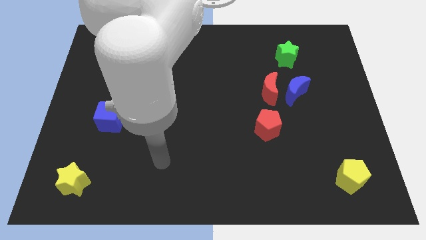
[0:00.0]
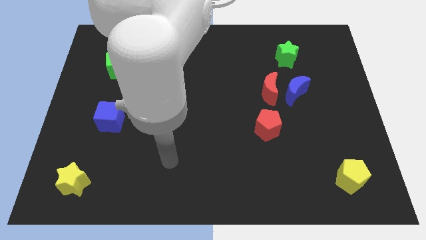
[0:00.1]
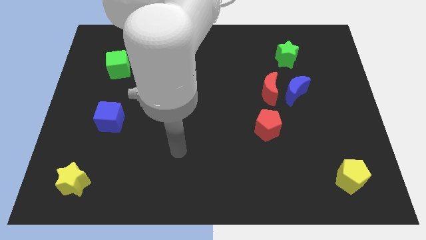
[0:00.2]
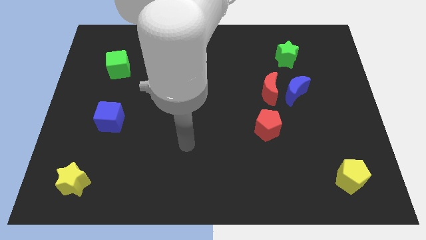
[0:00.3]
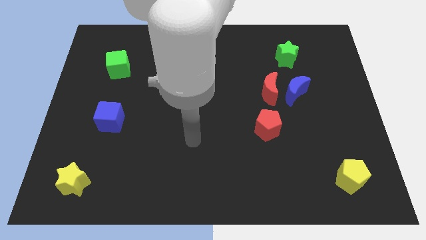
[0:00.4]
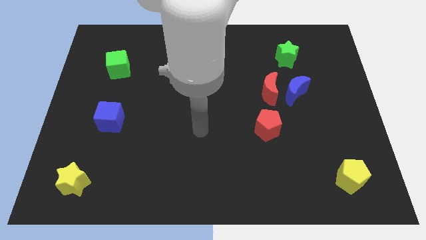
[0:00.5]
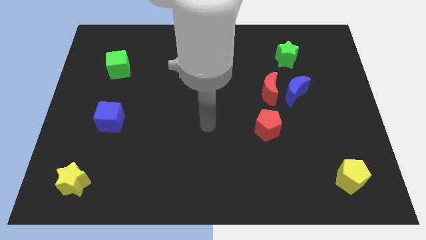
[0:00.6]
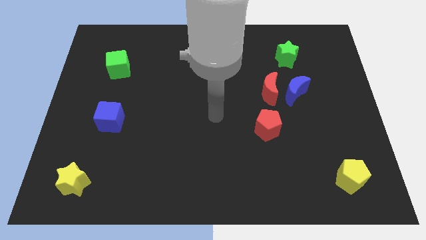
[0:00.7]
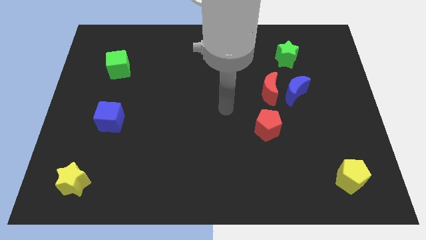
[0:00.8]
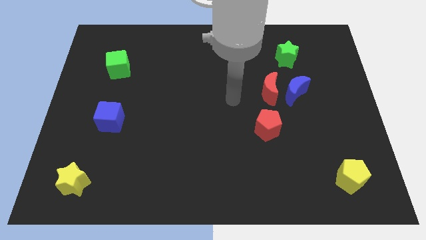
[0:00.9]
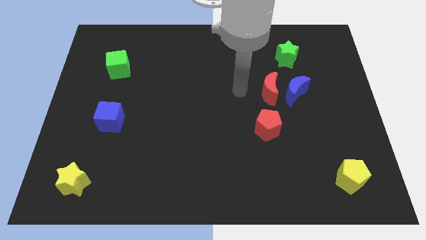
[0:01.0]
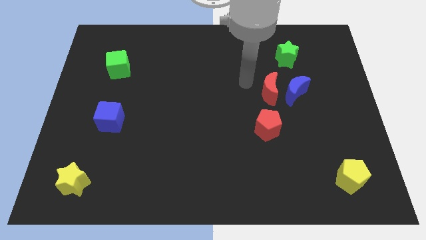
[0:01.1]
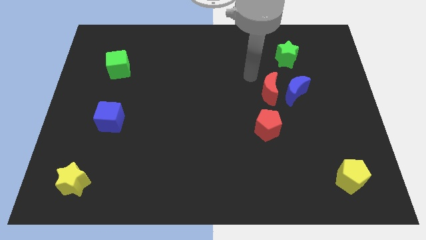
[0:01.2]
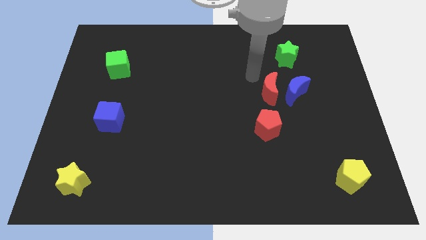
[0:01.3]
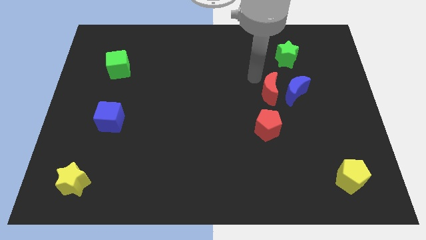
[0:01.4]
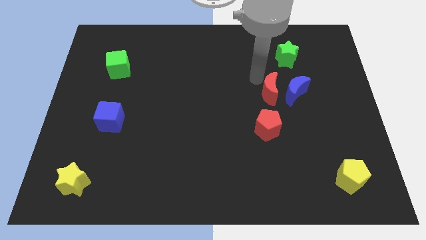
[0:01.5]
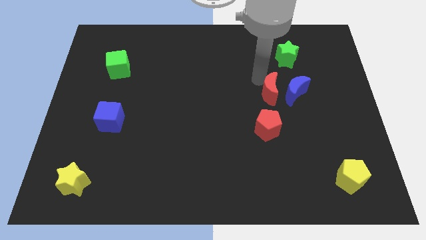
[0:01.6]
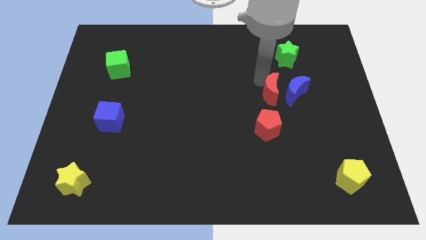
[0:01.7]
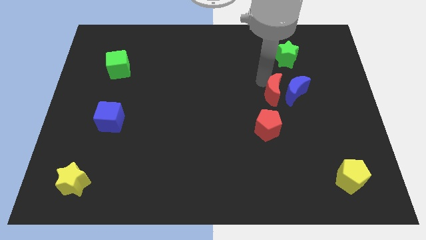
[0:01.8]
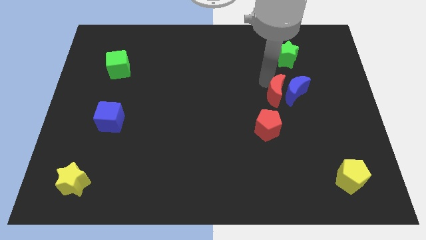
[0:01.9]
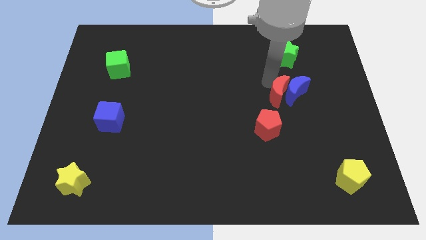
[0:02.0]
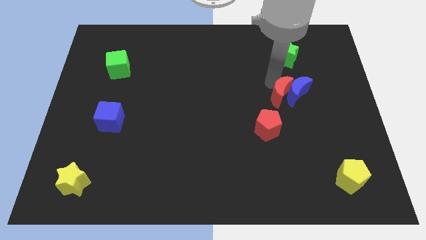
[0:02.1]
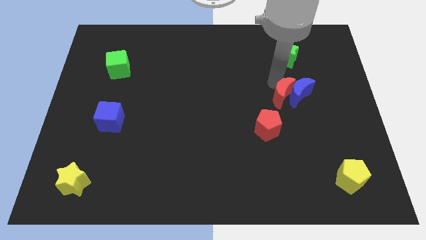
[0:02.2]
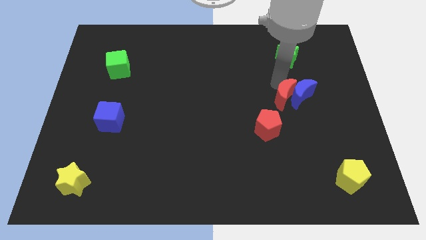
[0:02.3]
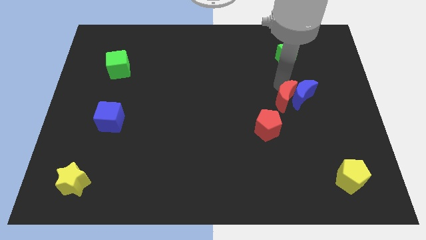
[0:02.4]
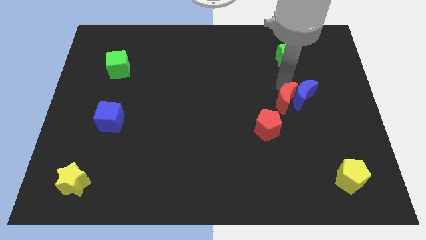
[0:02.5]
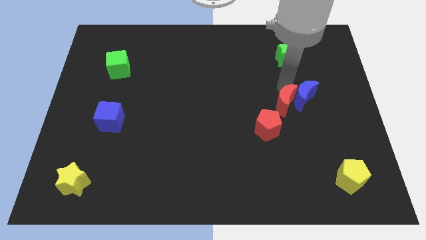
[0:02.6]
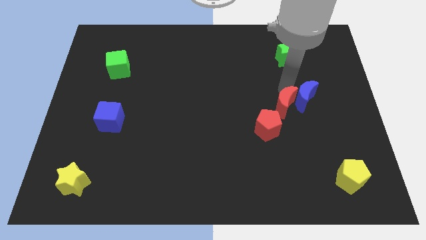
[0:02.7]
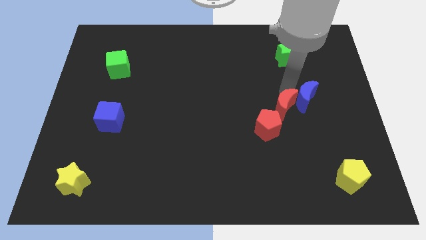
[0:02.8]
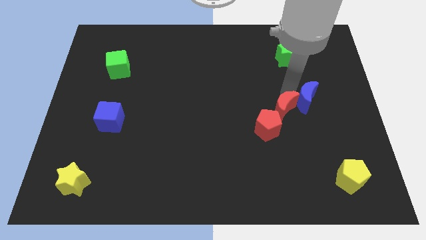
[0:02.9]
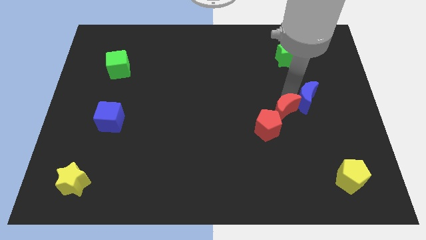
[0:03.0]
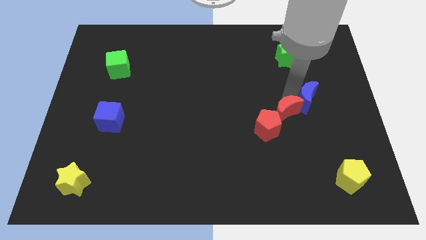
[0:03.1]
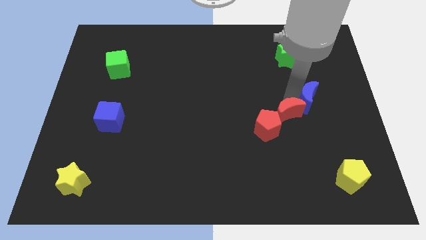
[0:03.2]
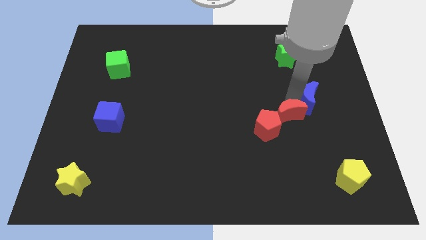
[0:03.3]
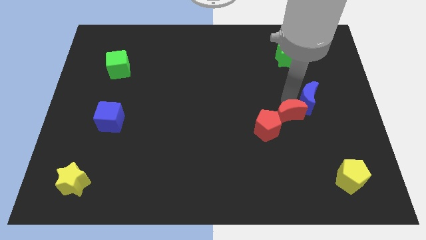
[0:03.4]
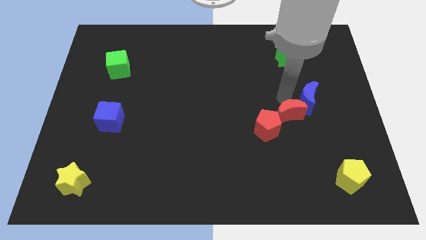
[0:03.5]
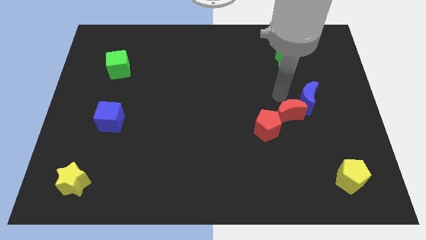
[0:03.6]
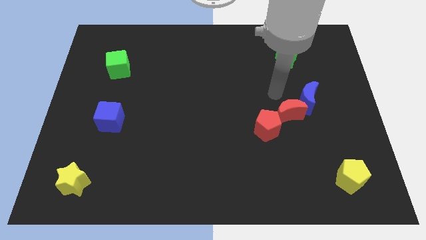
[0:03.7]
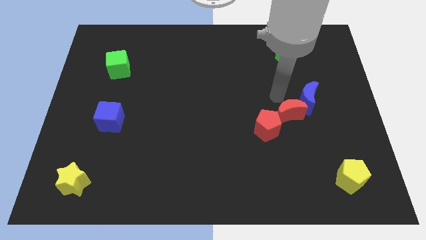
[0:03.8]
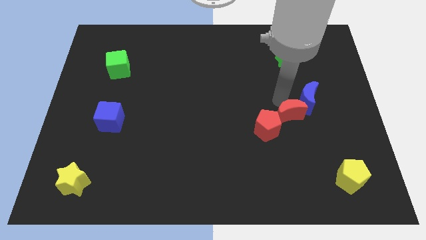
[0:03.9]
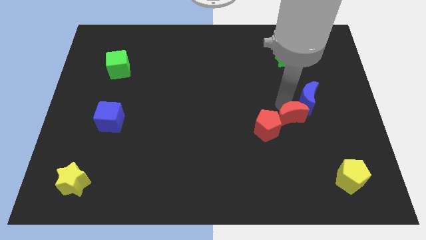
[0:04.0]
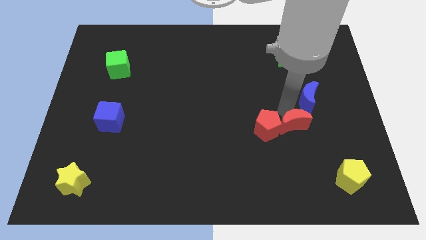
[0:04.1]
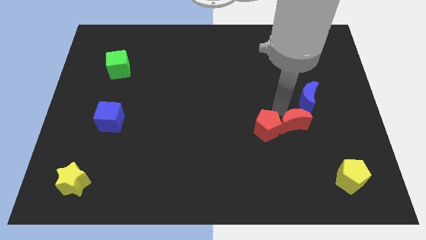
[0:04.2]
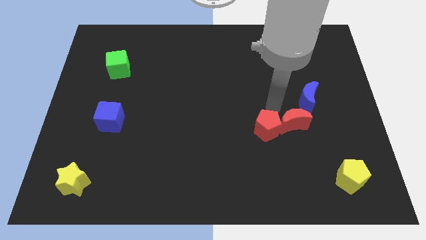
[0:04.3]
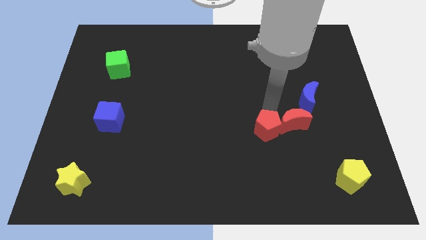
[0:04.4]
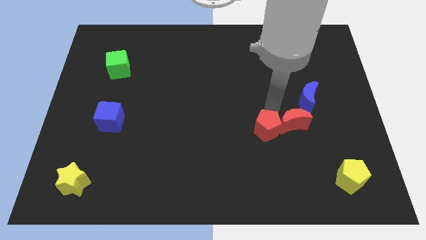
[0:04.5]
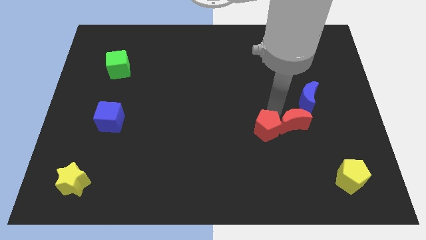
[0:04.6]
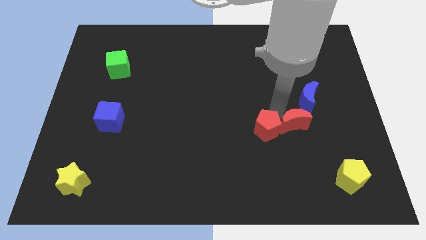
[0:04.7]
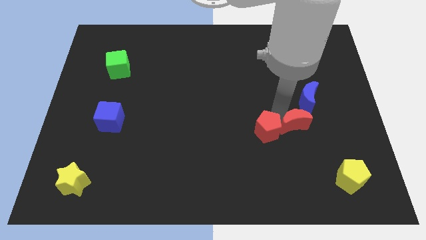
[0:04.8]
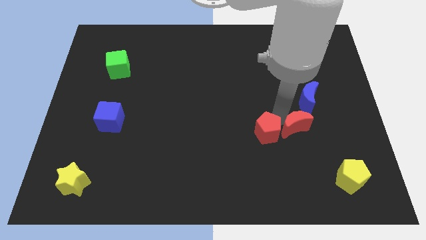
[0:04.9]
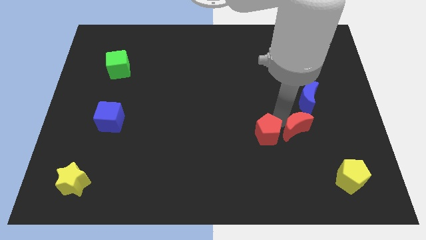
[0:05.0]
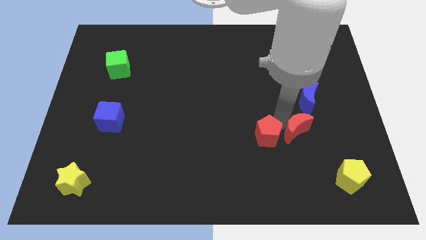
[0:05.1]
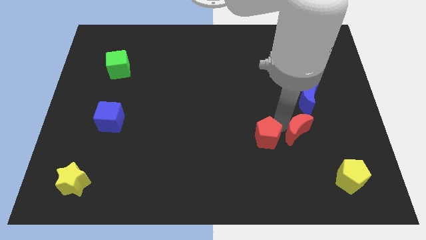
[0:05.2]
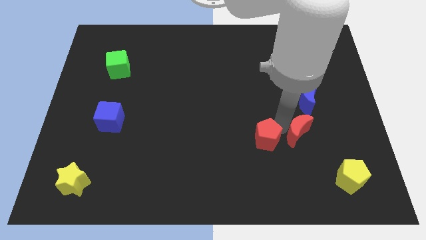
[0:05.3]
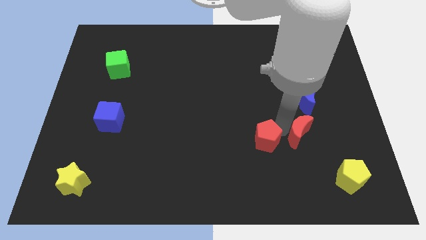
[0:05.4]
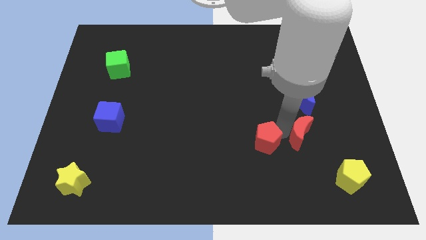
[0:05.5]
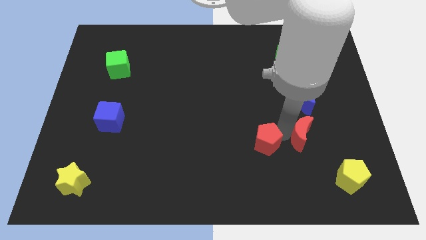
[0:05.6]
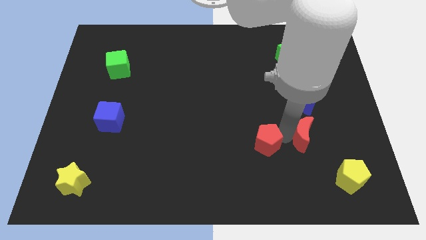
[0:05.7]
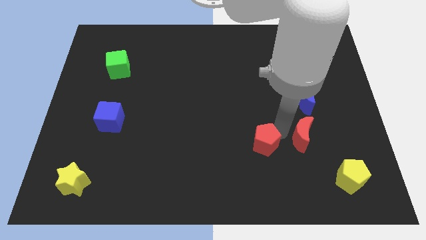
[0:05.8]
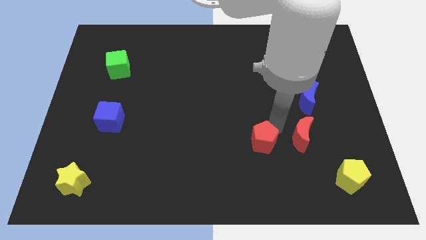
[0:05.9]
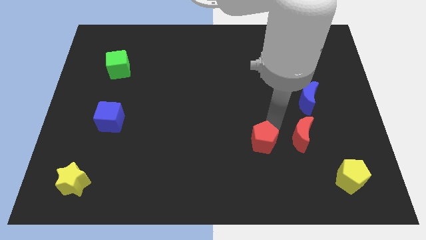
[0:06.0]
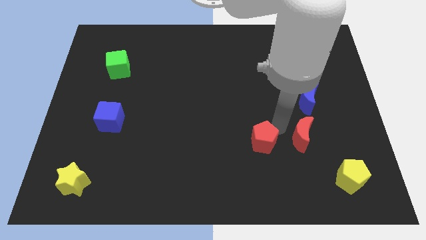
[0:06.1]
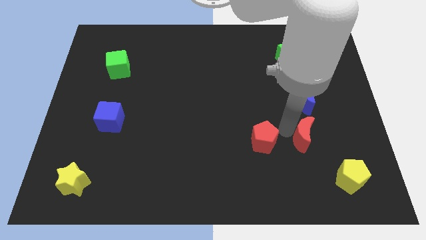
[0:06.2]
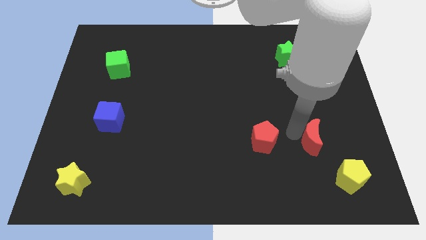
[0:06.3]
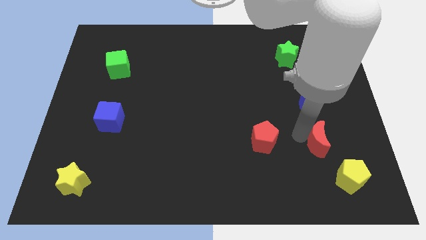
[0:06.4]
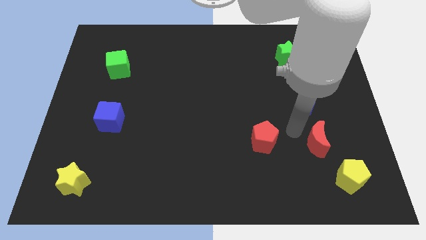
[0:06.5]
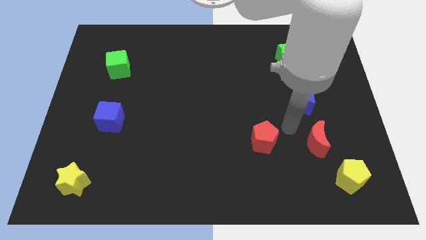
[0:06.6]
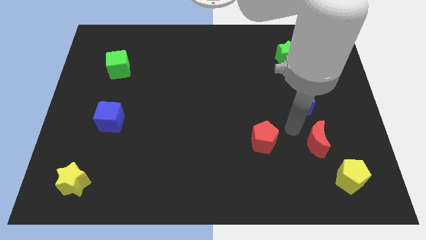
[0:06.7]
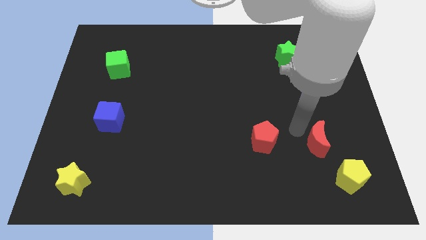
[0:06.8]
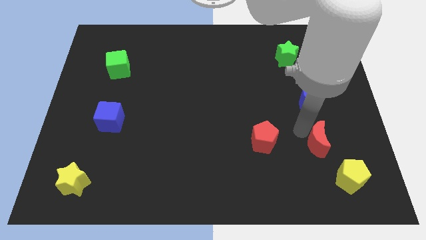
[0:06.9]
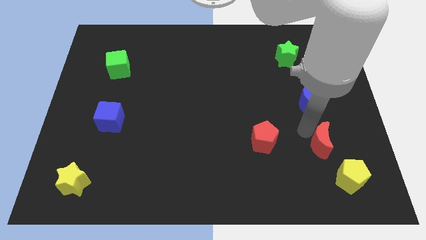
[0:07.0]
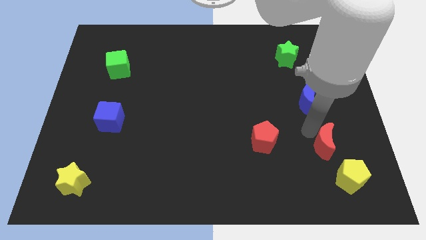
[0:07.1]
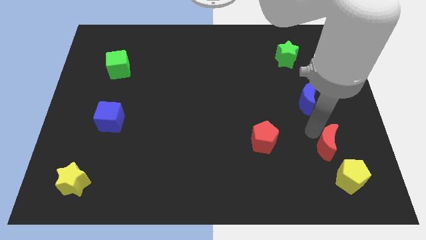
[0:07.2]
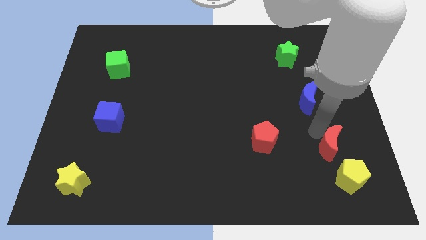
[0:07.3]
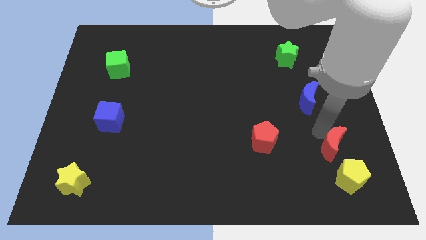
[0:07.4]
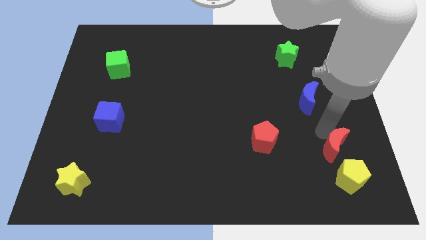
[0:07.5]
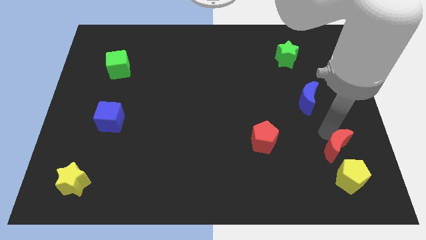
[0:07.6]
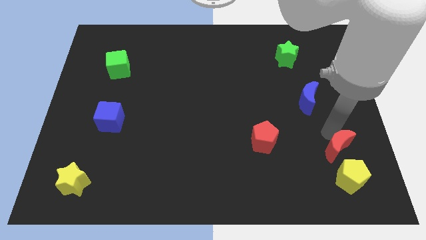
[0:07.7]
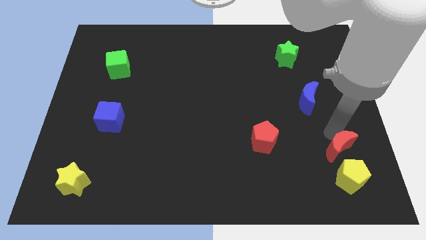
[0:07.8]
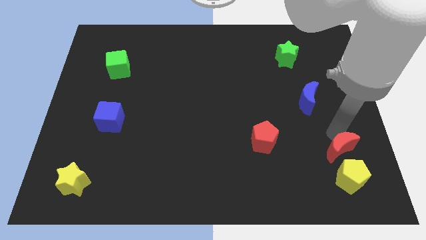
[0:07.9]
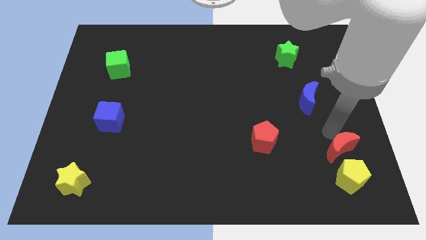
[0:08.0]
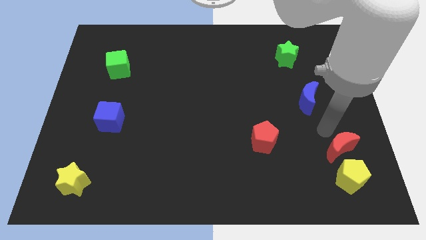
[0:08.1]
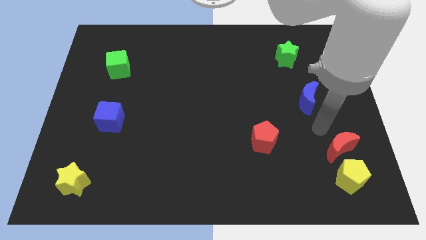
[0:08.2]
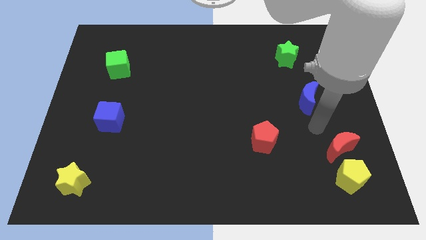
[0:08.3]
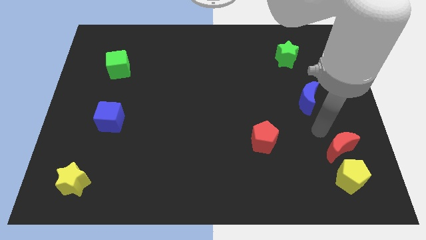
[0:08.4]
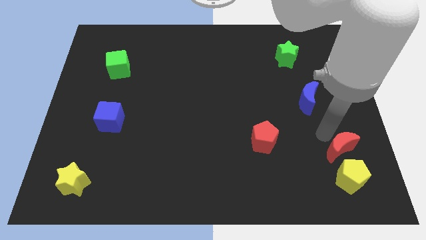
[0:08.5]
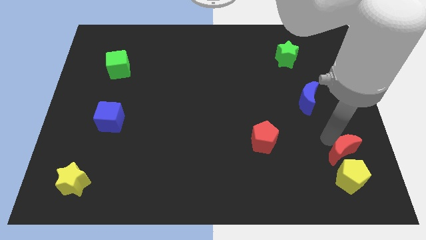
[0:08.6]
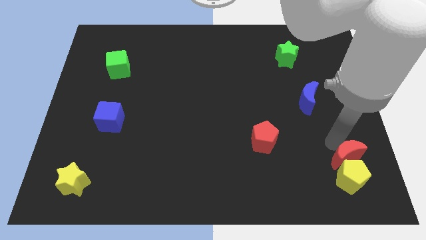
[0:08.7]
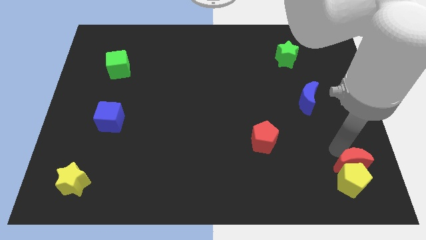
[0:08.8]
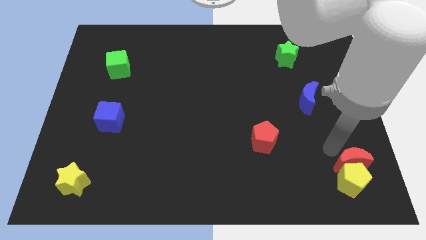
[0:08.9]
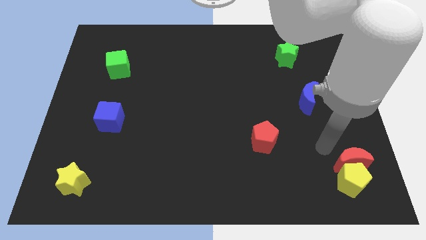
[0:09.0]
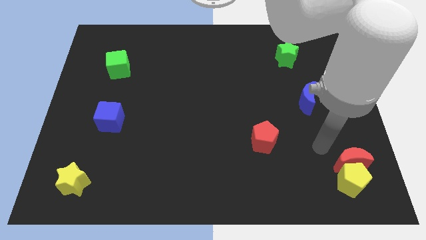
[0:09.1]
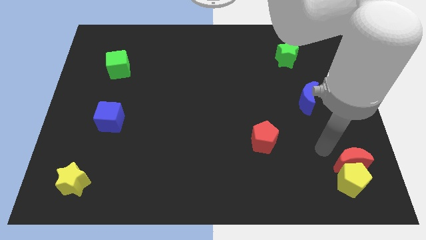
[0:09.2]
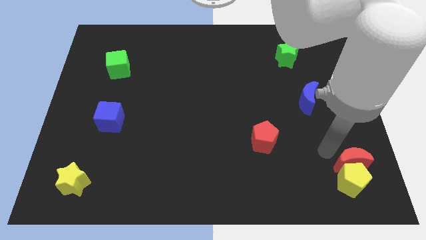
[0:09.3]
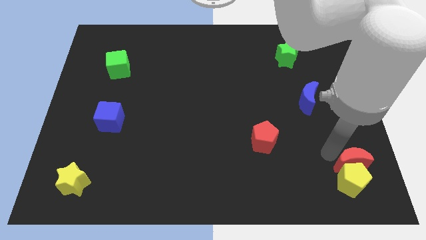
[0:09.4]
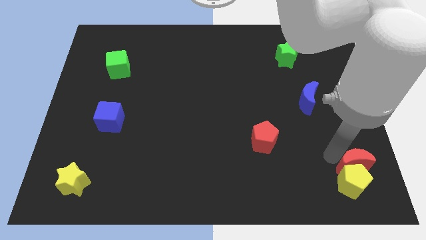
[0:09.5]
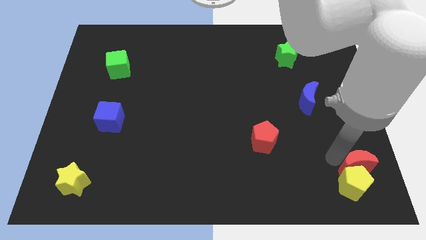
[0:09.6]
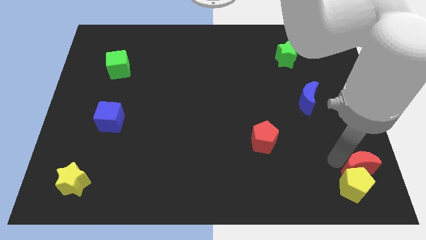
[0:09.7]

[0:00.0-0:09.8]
slide the red moon to the bottom right corner
